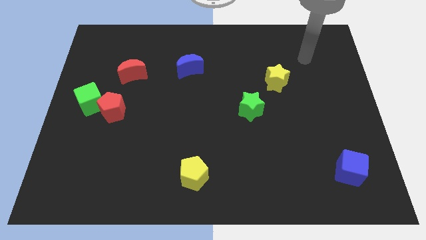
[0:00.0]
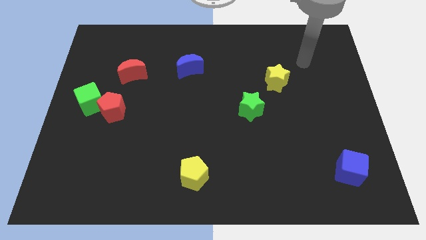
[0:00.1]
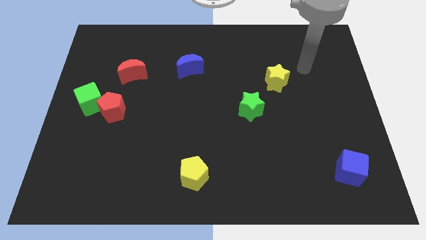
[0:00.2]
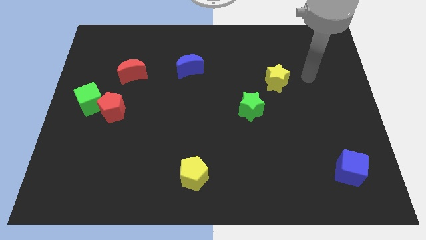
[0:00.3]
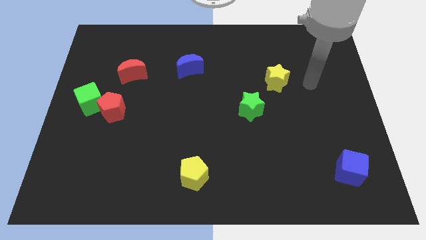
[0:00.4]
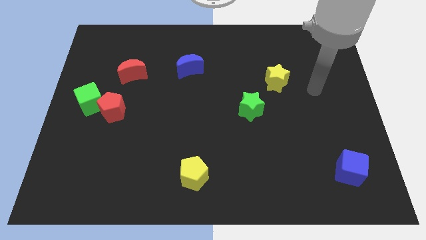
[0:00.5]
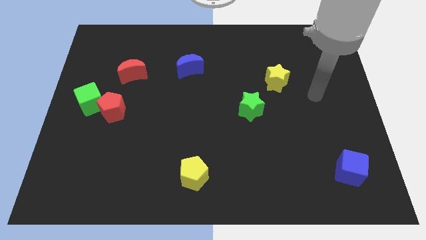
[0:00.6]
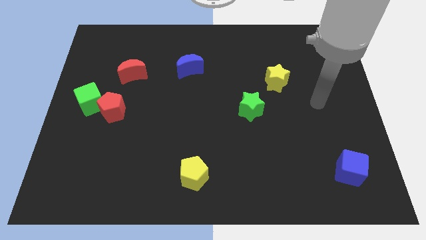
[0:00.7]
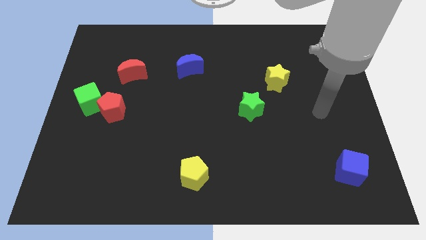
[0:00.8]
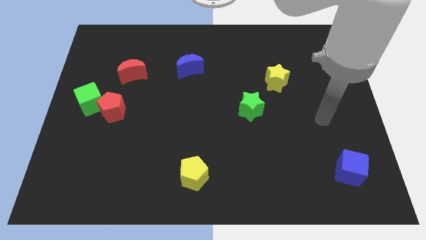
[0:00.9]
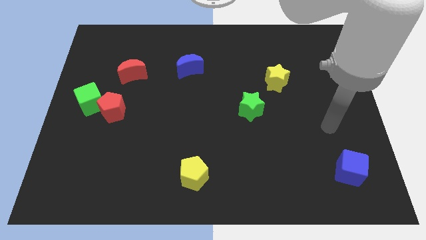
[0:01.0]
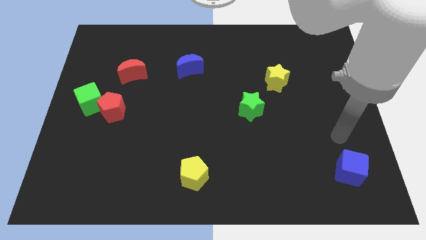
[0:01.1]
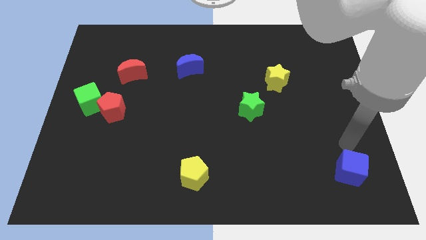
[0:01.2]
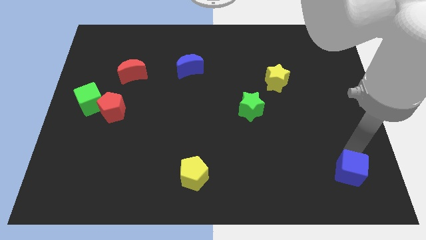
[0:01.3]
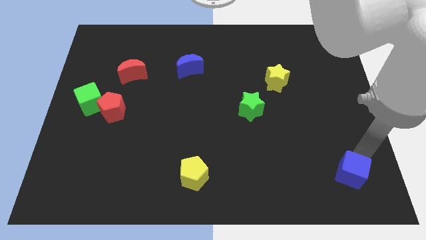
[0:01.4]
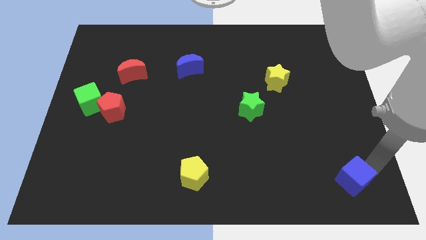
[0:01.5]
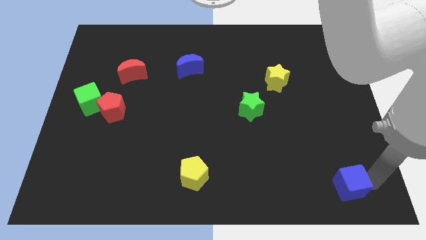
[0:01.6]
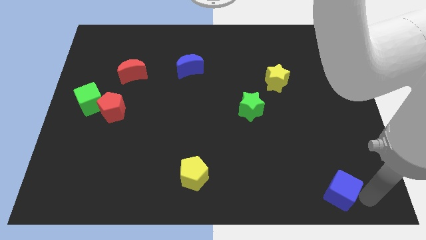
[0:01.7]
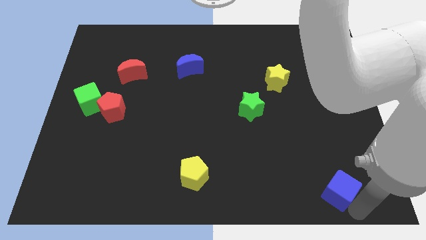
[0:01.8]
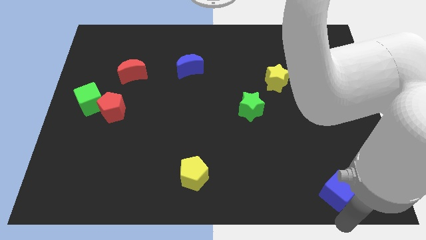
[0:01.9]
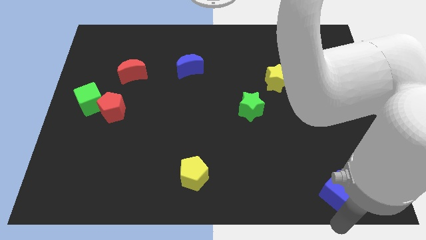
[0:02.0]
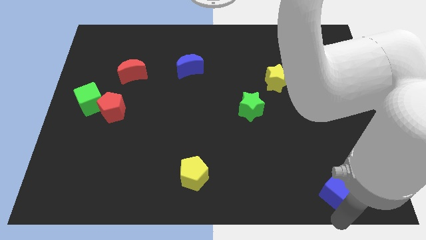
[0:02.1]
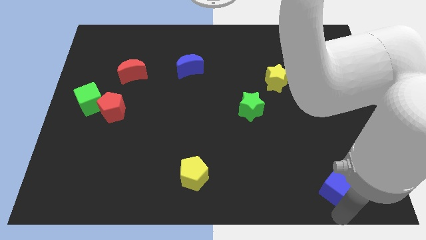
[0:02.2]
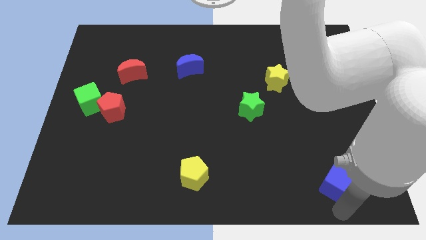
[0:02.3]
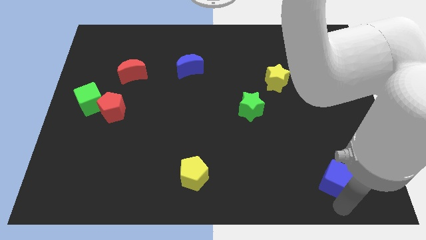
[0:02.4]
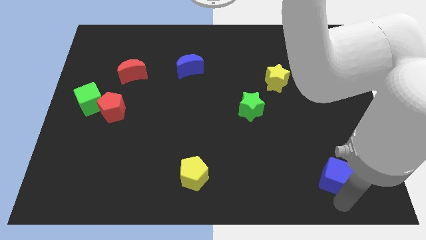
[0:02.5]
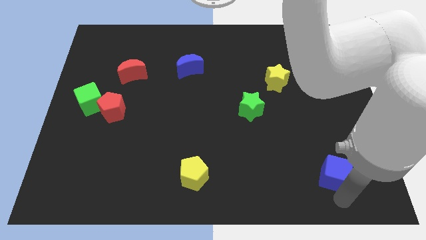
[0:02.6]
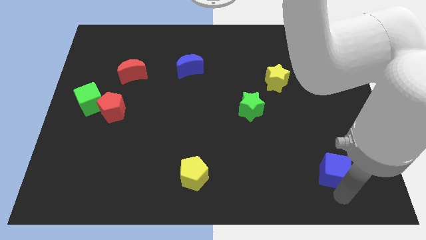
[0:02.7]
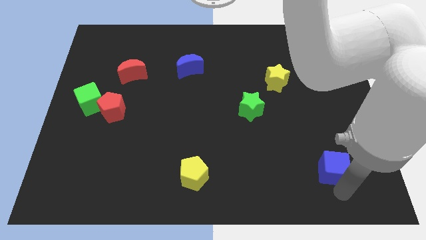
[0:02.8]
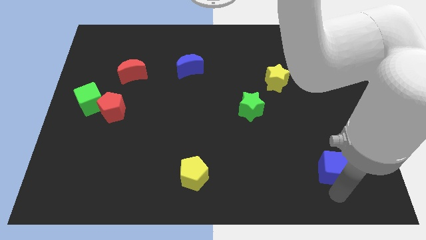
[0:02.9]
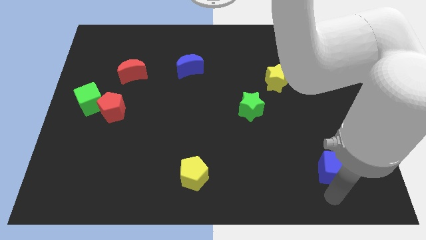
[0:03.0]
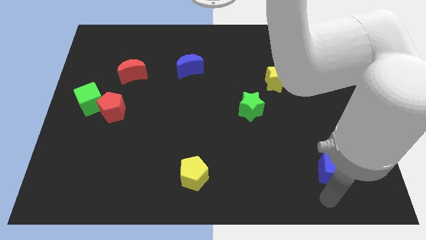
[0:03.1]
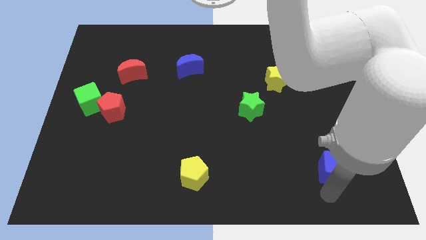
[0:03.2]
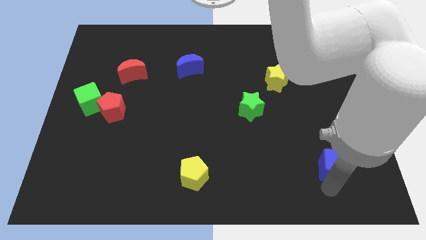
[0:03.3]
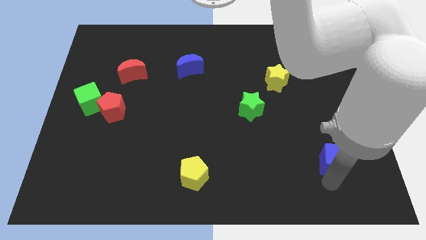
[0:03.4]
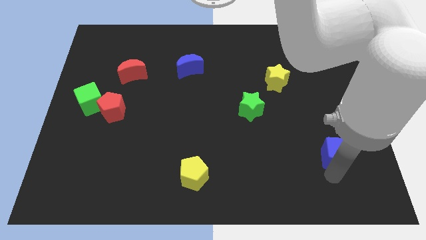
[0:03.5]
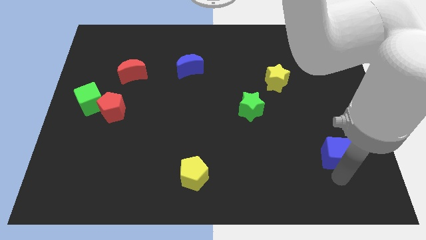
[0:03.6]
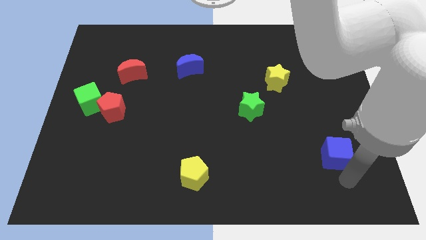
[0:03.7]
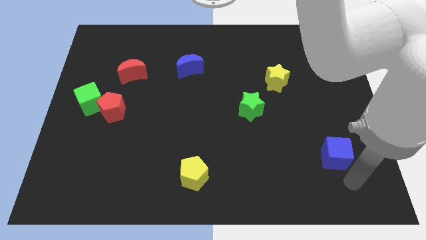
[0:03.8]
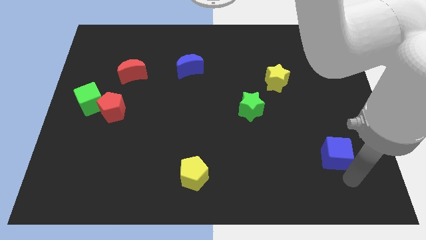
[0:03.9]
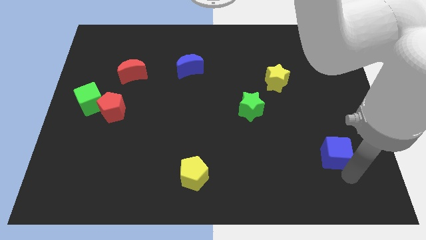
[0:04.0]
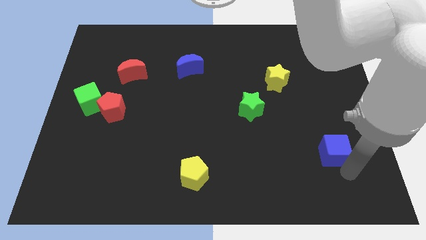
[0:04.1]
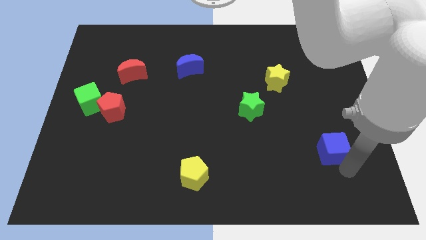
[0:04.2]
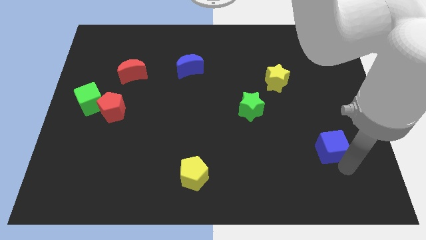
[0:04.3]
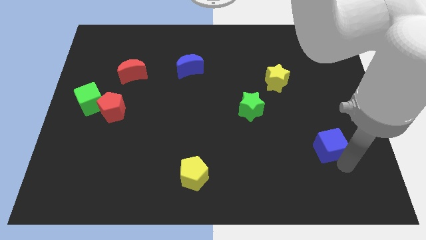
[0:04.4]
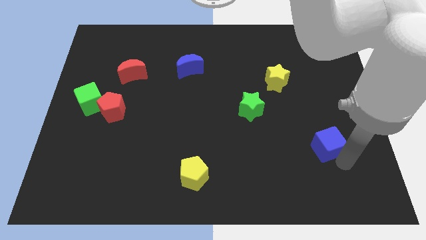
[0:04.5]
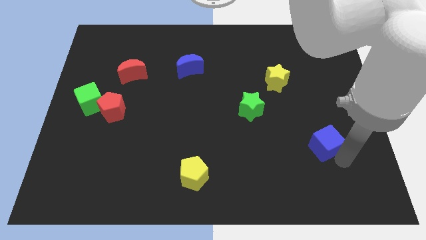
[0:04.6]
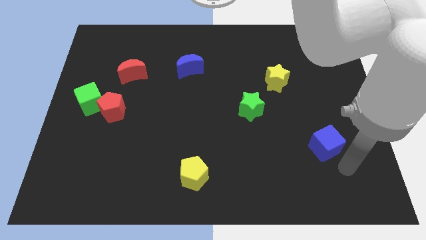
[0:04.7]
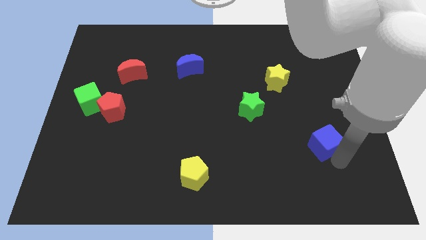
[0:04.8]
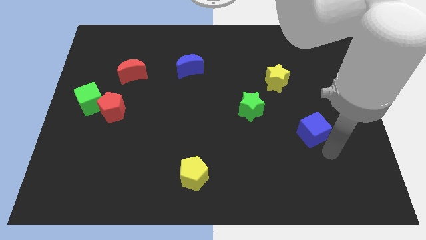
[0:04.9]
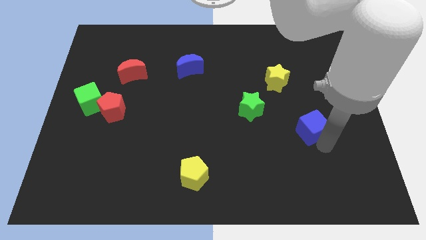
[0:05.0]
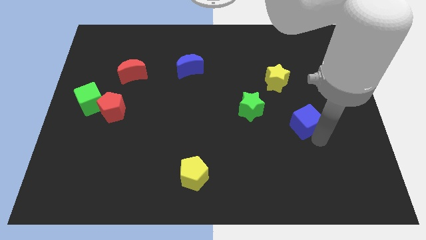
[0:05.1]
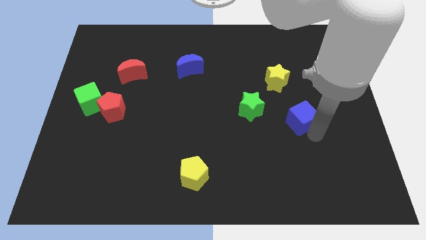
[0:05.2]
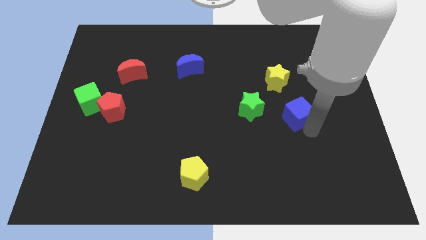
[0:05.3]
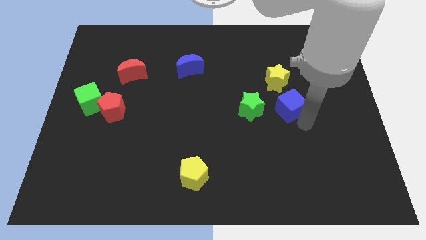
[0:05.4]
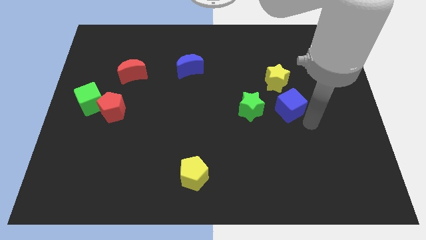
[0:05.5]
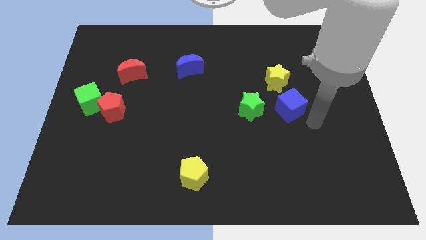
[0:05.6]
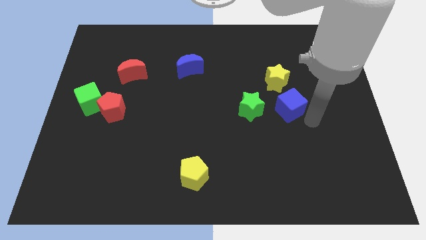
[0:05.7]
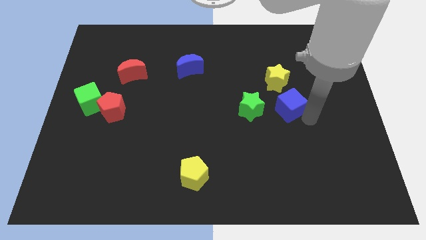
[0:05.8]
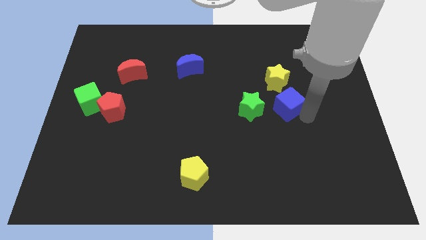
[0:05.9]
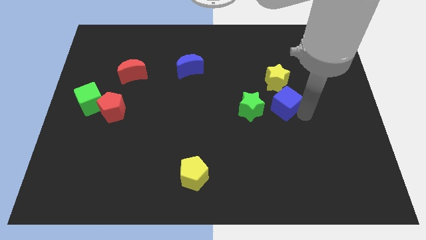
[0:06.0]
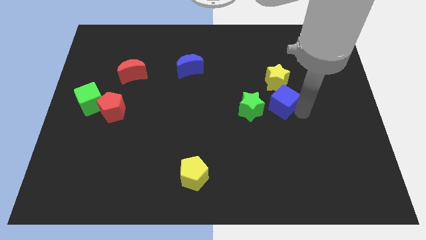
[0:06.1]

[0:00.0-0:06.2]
slide the blue cube upwards and to the left

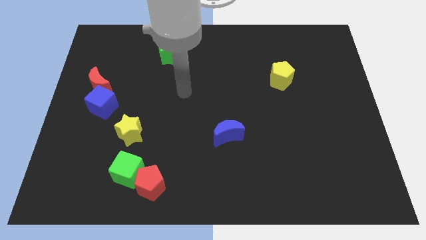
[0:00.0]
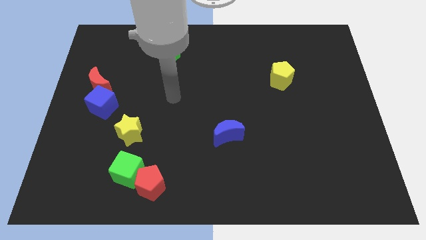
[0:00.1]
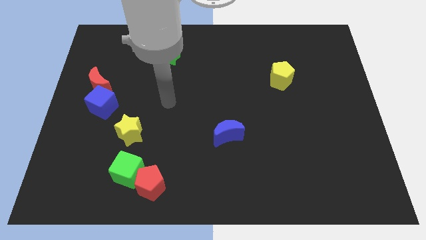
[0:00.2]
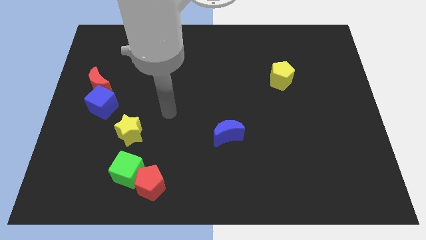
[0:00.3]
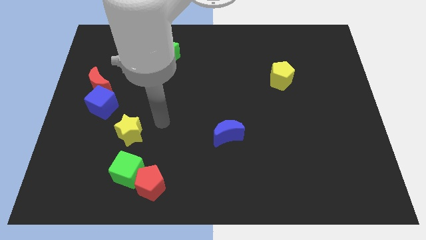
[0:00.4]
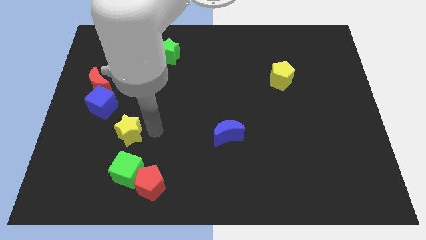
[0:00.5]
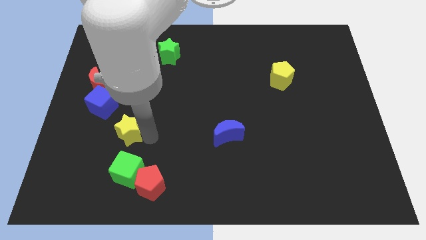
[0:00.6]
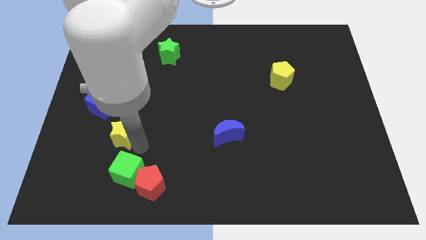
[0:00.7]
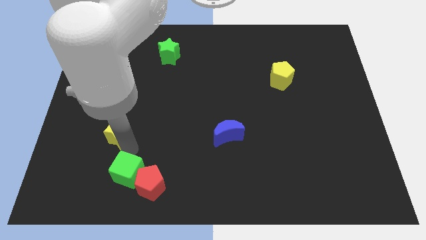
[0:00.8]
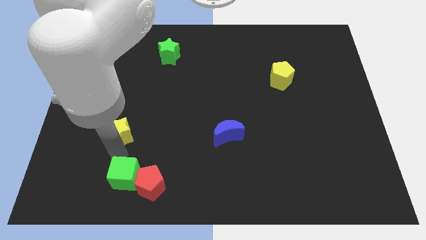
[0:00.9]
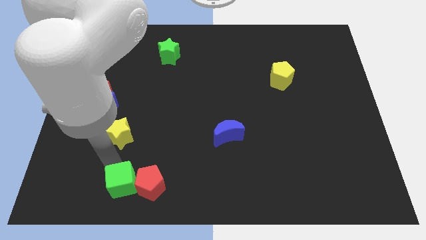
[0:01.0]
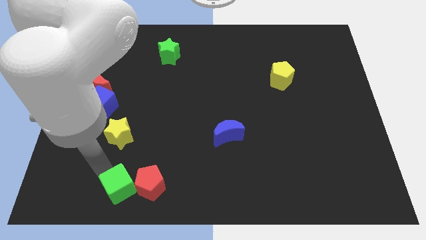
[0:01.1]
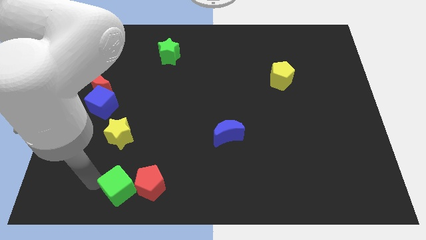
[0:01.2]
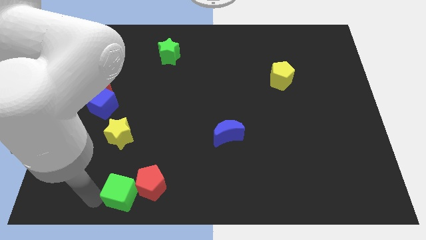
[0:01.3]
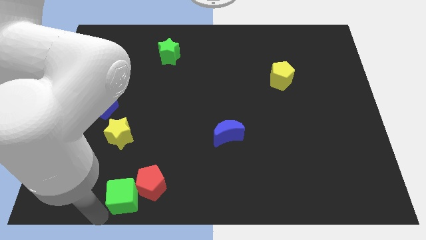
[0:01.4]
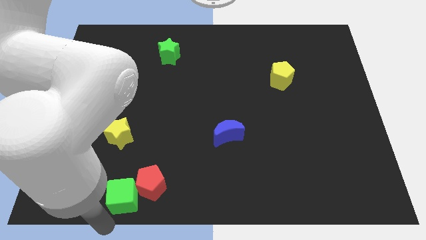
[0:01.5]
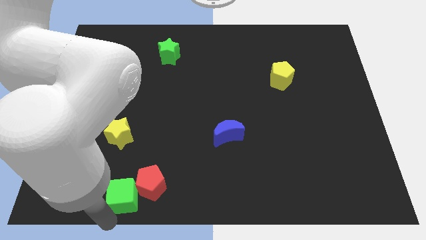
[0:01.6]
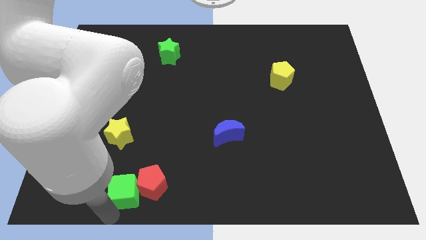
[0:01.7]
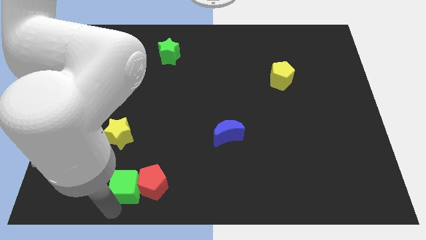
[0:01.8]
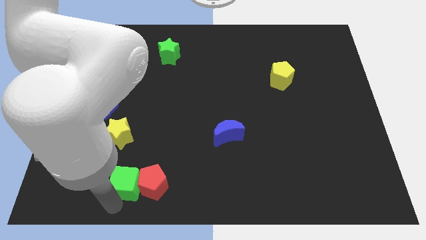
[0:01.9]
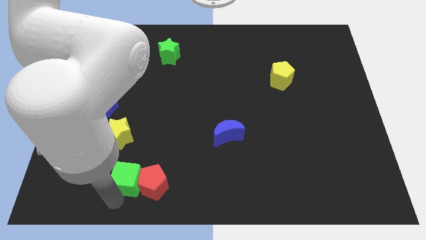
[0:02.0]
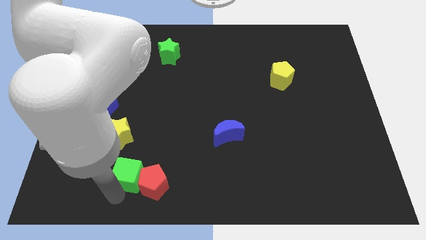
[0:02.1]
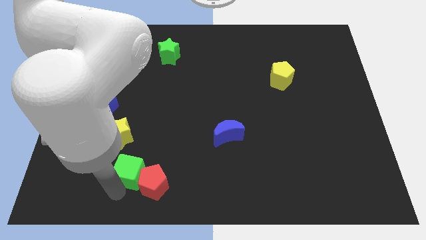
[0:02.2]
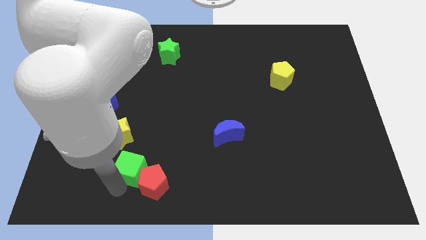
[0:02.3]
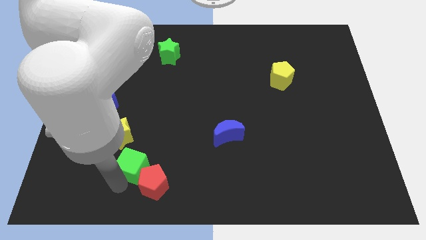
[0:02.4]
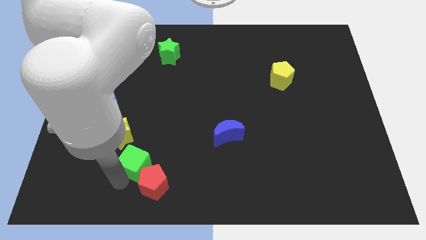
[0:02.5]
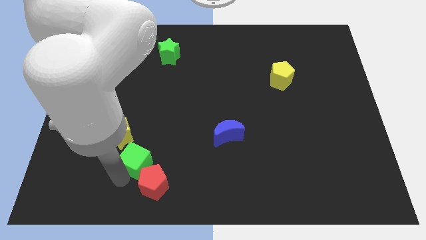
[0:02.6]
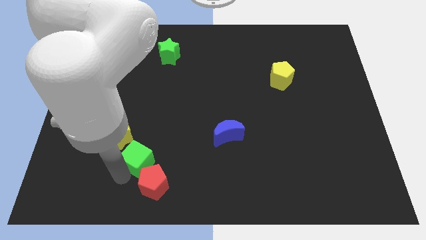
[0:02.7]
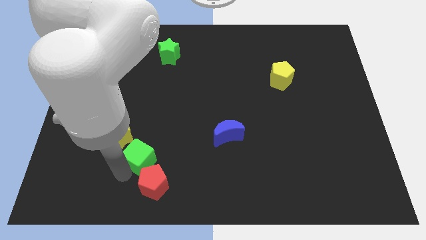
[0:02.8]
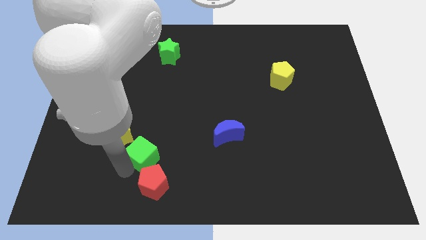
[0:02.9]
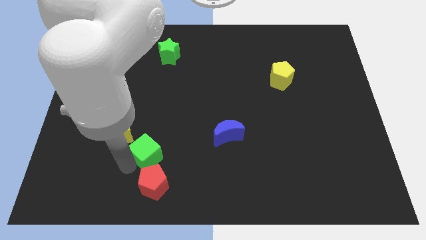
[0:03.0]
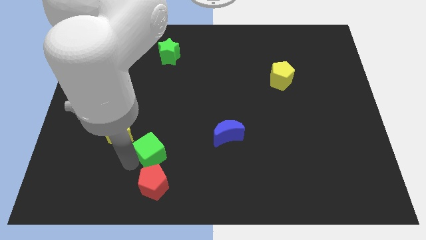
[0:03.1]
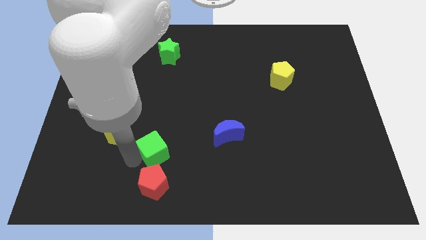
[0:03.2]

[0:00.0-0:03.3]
slightly push the green cube diagonally upwards and right
